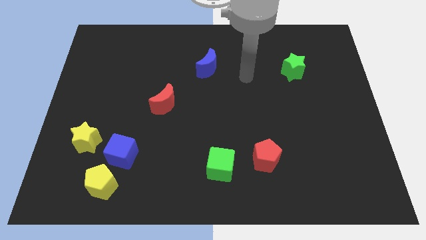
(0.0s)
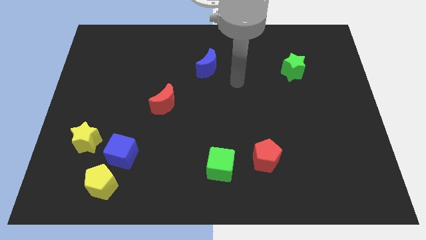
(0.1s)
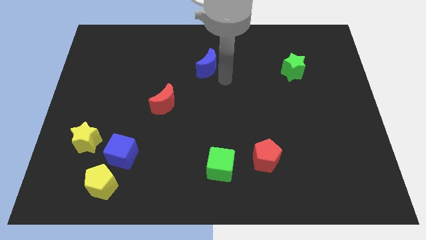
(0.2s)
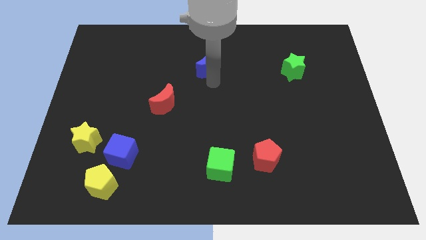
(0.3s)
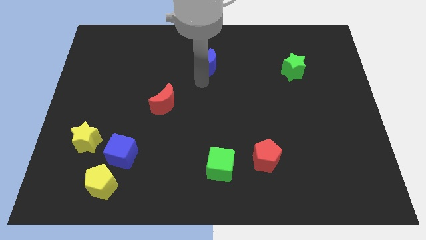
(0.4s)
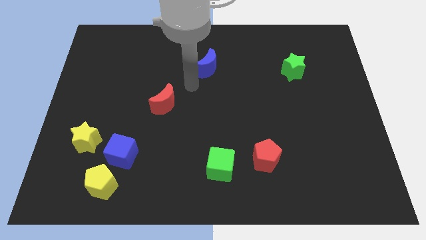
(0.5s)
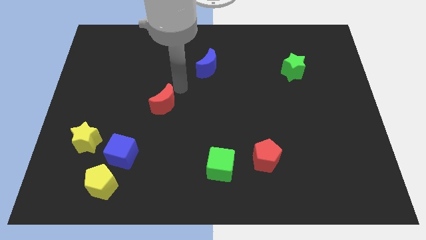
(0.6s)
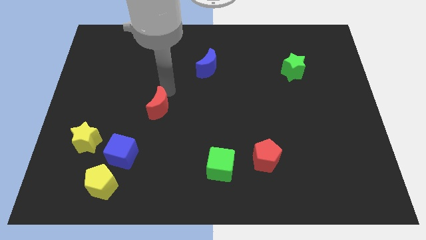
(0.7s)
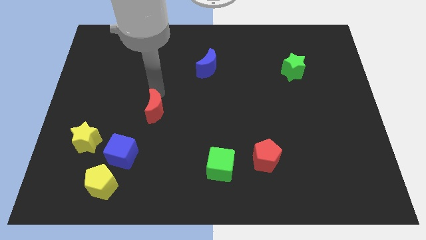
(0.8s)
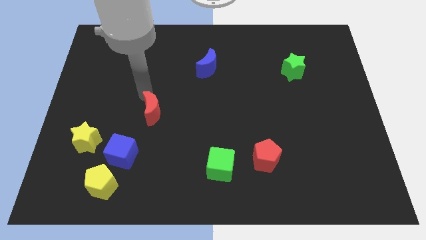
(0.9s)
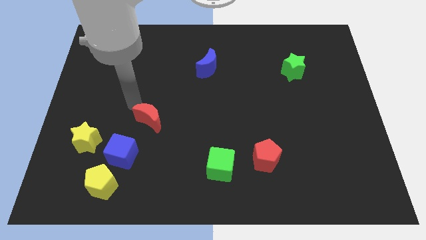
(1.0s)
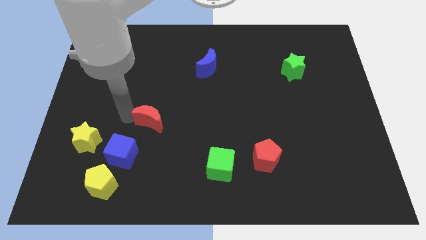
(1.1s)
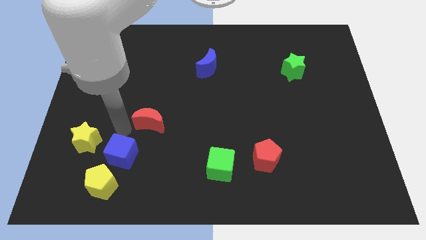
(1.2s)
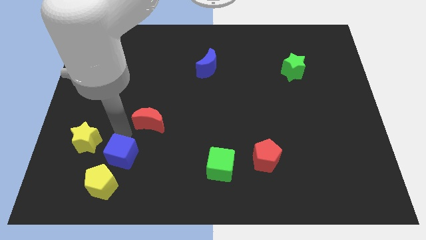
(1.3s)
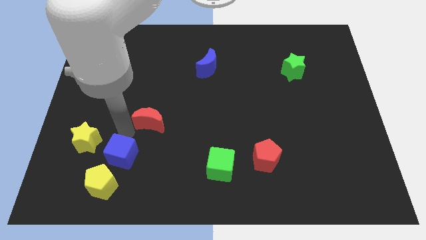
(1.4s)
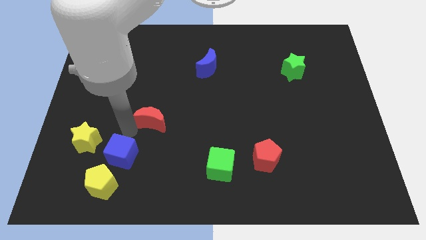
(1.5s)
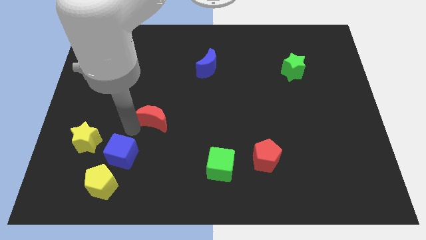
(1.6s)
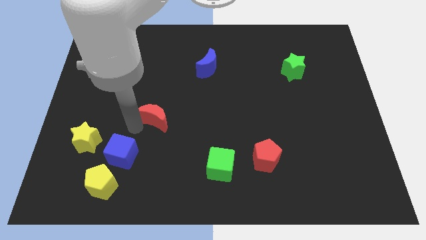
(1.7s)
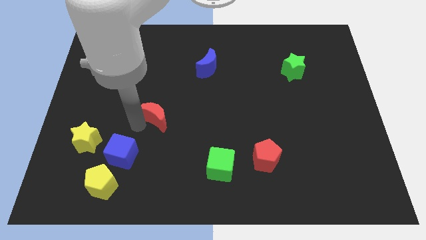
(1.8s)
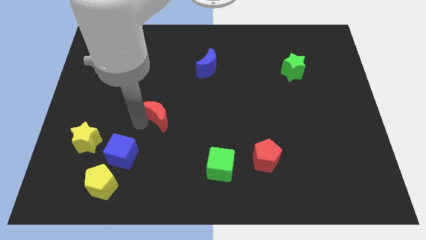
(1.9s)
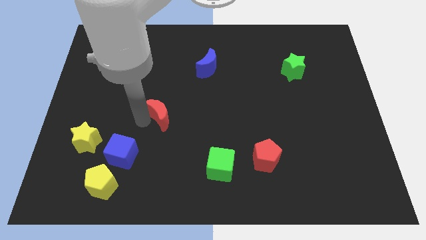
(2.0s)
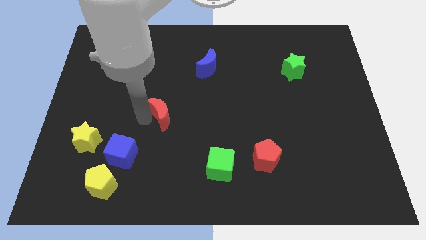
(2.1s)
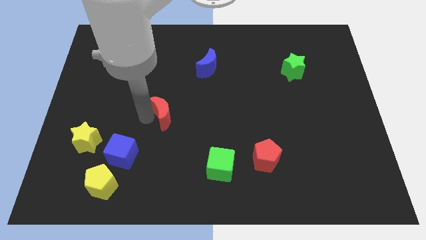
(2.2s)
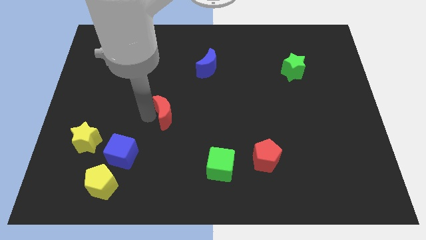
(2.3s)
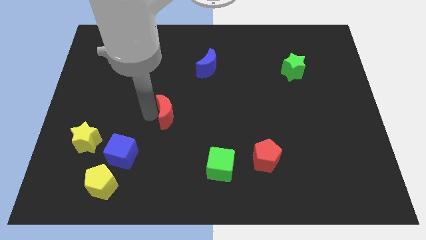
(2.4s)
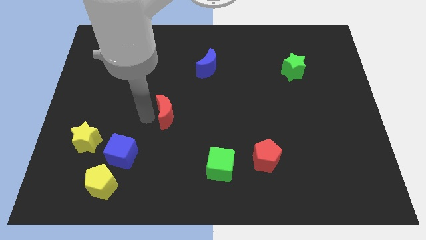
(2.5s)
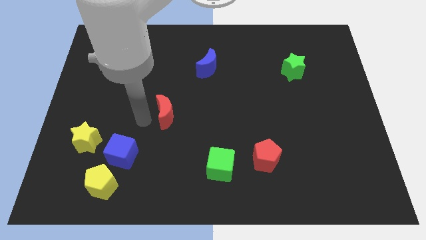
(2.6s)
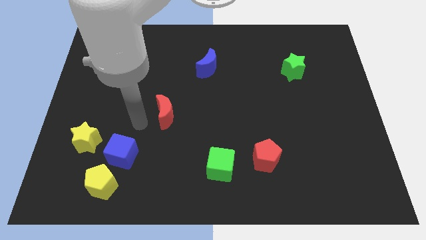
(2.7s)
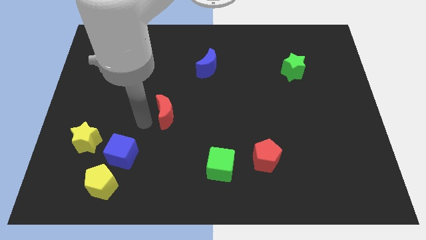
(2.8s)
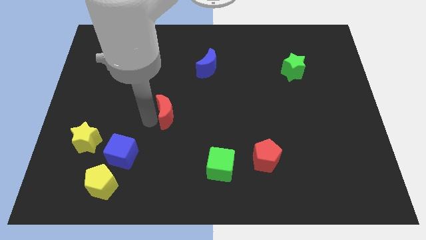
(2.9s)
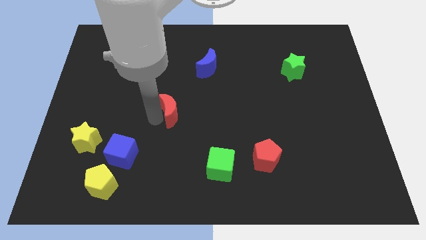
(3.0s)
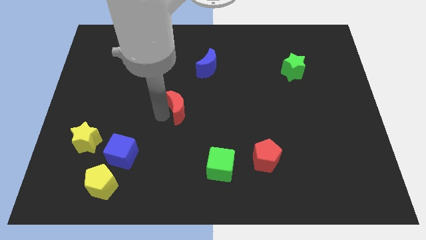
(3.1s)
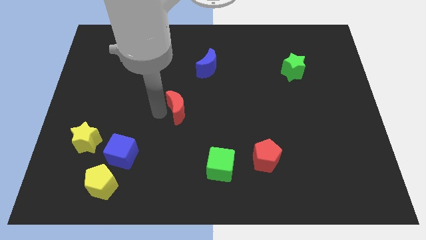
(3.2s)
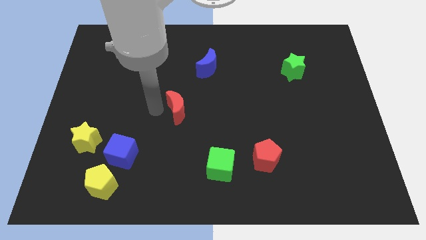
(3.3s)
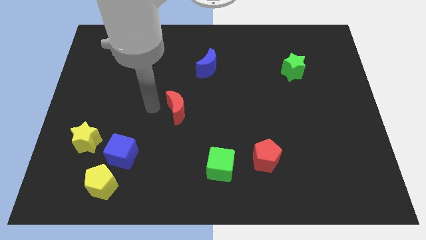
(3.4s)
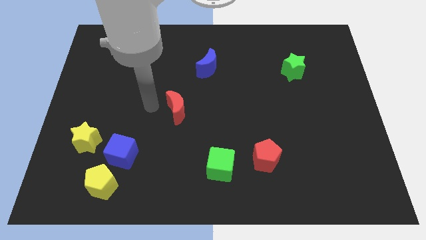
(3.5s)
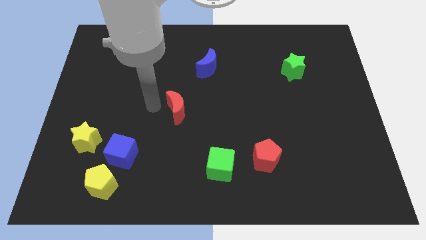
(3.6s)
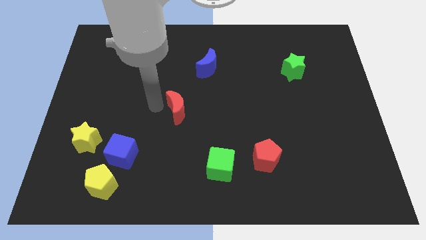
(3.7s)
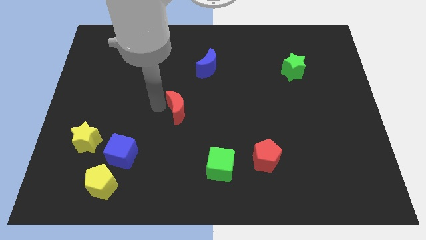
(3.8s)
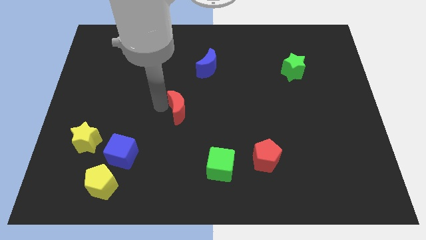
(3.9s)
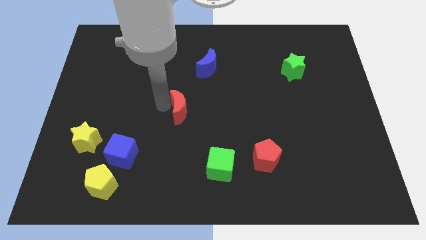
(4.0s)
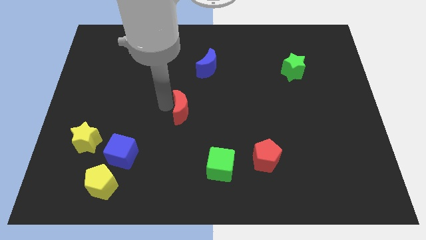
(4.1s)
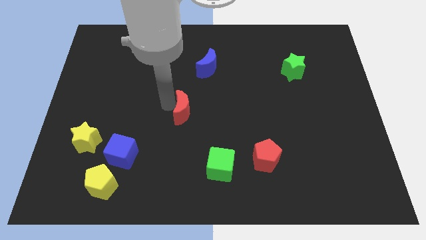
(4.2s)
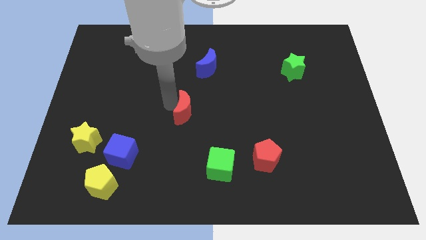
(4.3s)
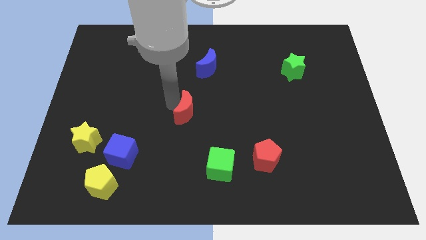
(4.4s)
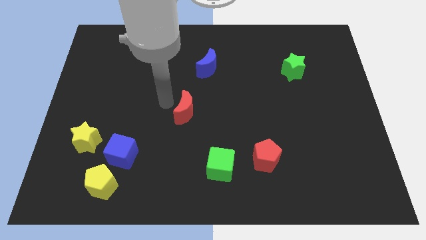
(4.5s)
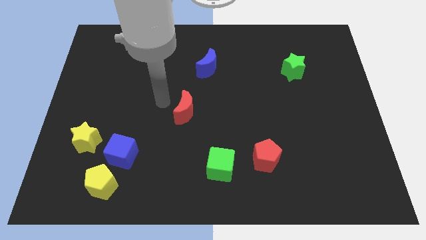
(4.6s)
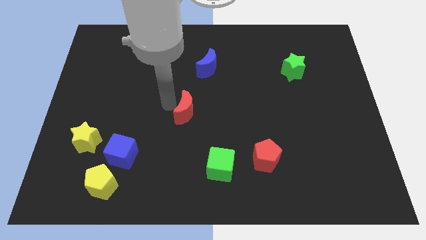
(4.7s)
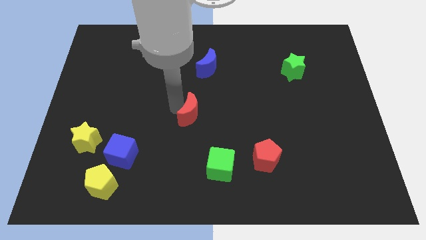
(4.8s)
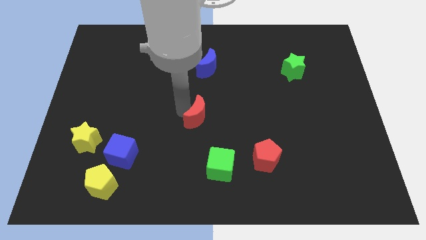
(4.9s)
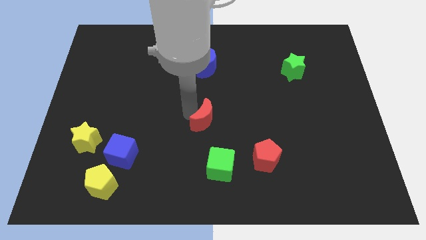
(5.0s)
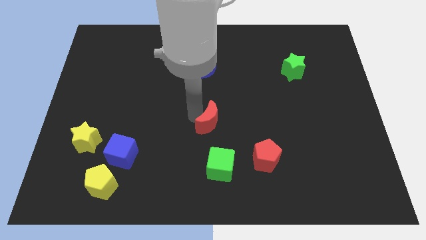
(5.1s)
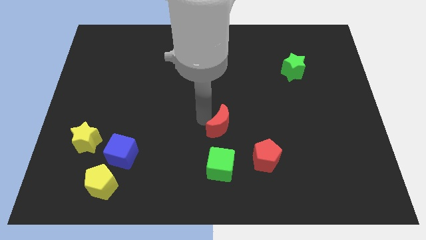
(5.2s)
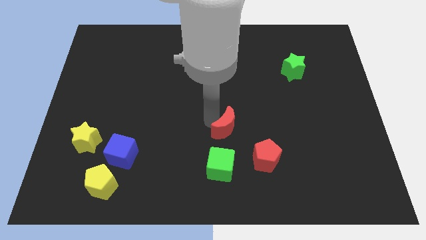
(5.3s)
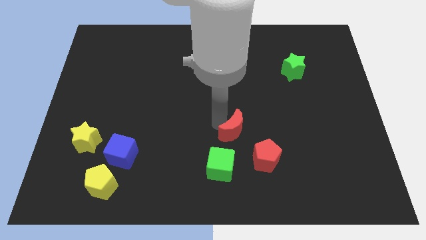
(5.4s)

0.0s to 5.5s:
move the red moon diagonally up and to the right of the green cube

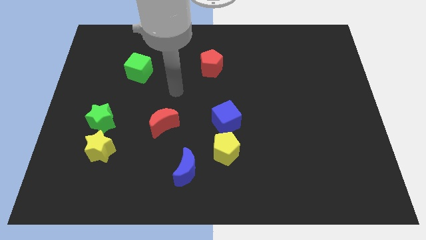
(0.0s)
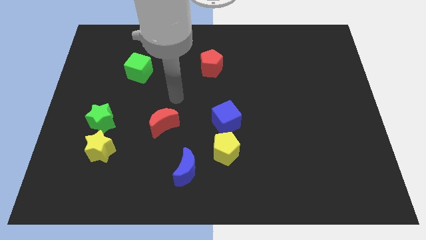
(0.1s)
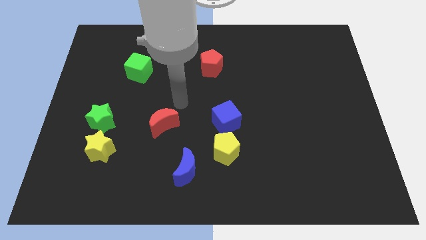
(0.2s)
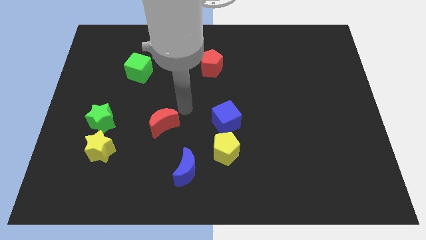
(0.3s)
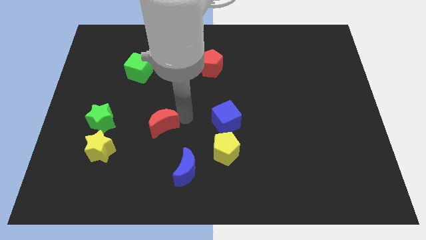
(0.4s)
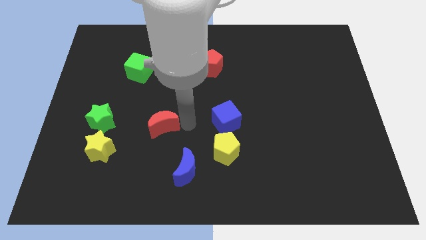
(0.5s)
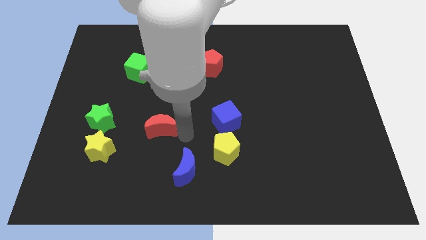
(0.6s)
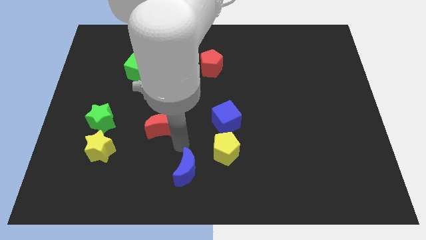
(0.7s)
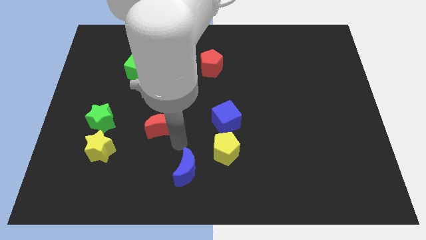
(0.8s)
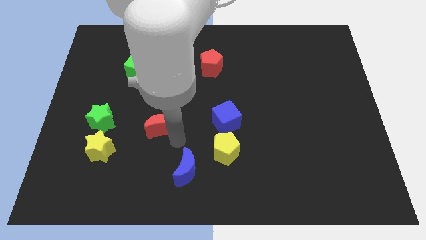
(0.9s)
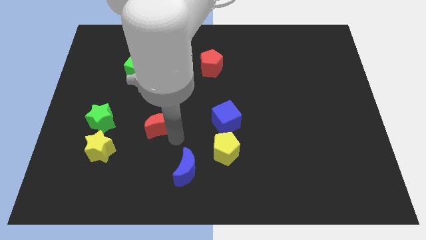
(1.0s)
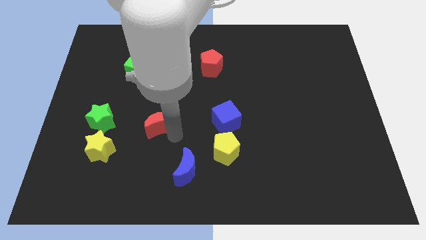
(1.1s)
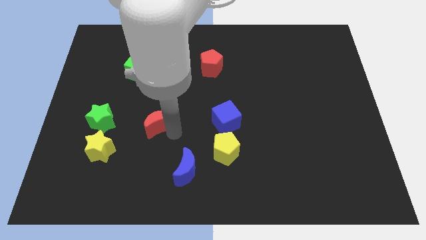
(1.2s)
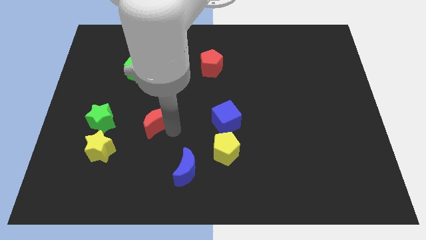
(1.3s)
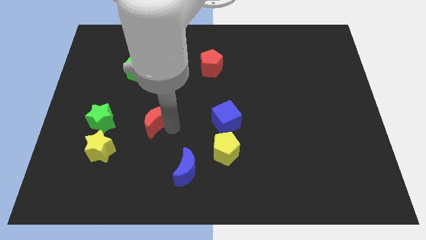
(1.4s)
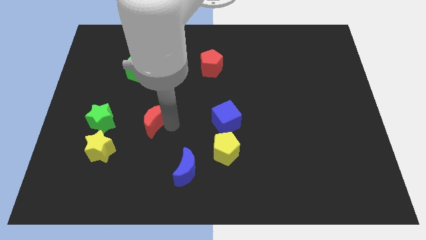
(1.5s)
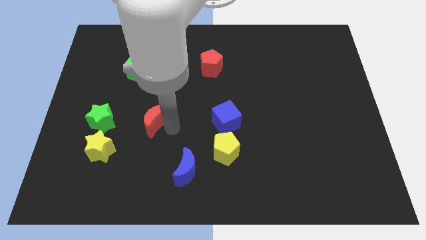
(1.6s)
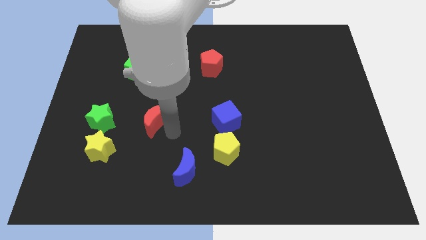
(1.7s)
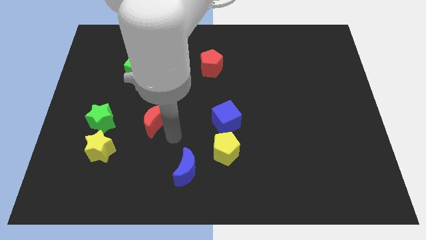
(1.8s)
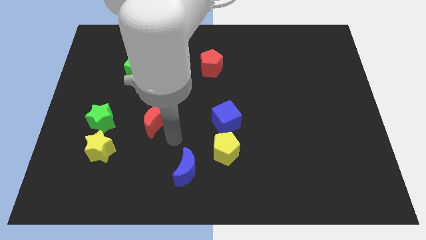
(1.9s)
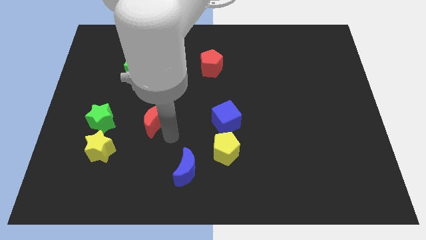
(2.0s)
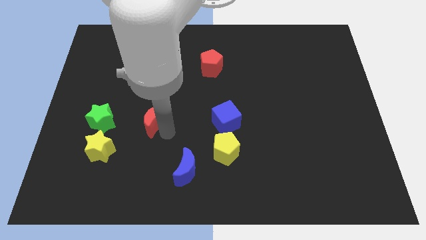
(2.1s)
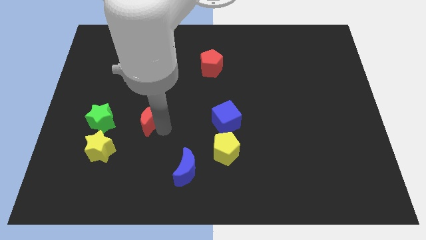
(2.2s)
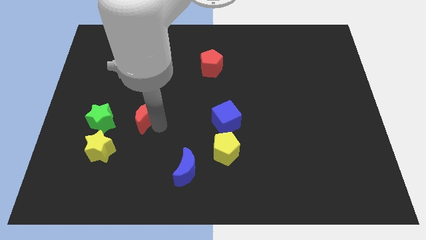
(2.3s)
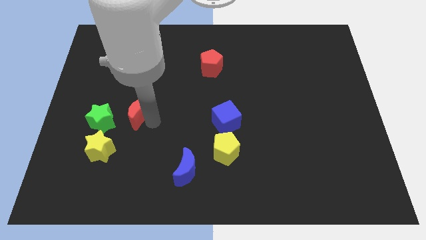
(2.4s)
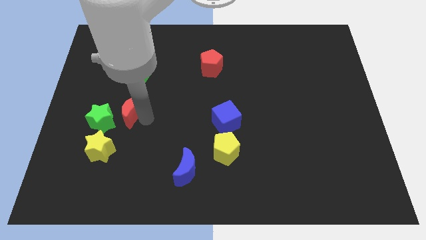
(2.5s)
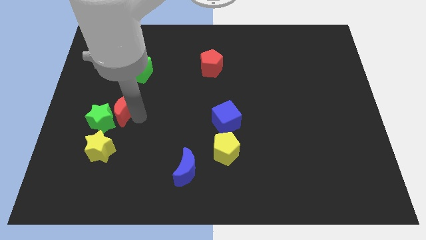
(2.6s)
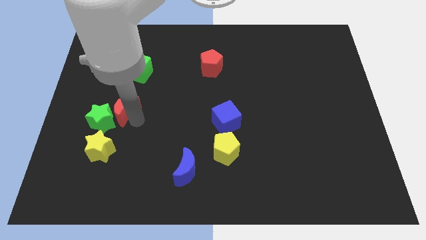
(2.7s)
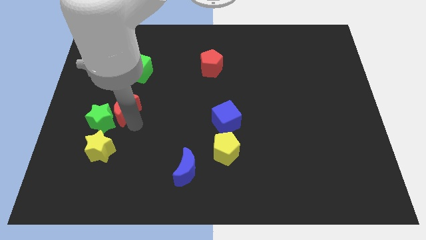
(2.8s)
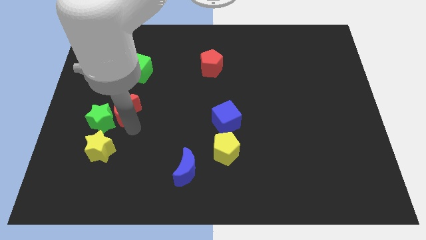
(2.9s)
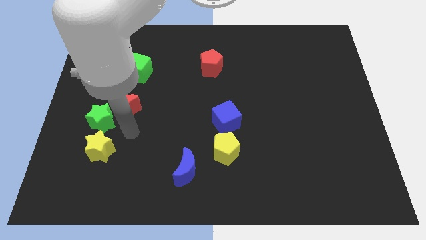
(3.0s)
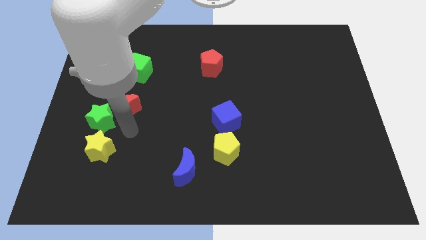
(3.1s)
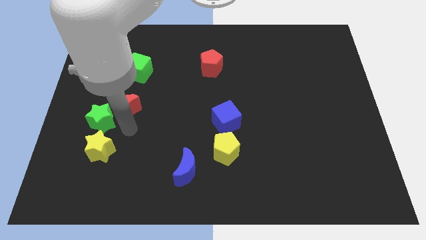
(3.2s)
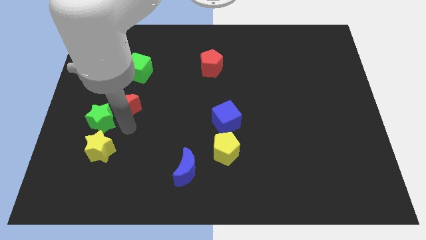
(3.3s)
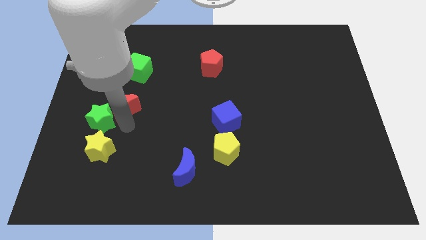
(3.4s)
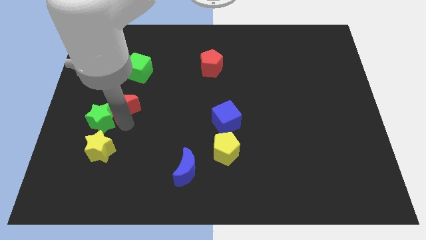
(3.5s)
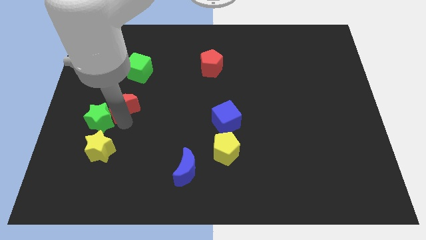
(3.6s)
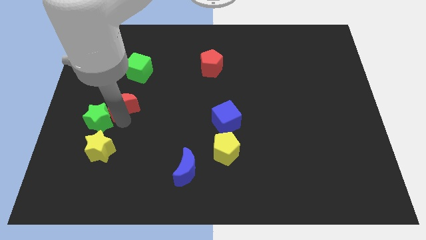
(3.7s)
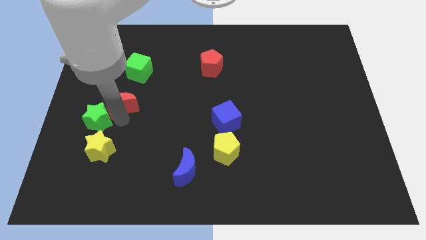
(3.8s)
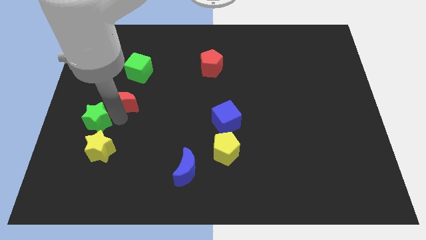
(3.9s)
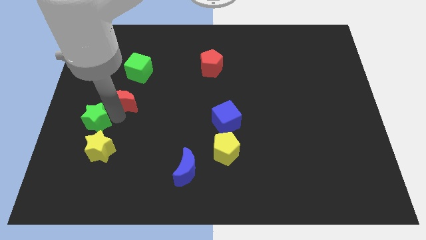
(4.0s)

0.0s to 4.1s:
put the red moon above the green star
